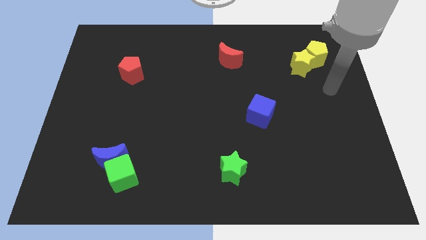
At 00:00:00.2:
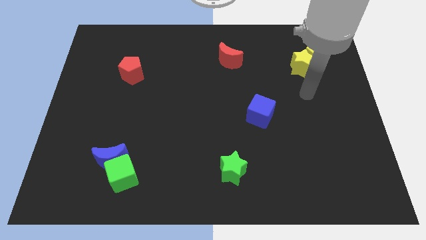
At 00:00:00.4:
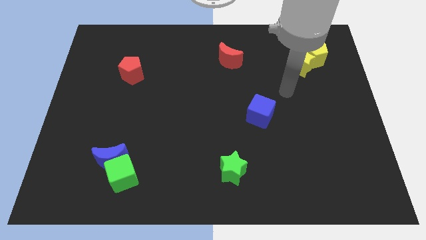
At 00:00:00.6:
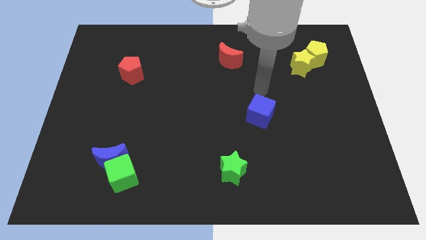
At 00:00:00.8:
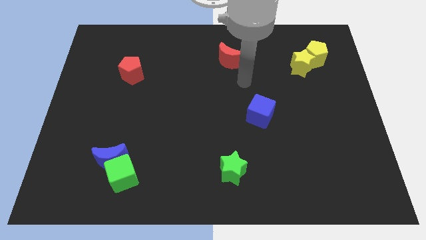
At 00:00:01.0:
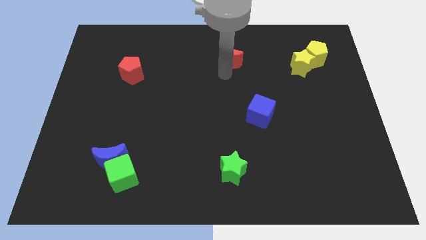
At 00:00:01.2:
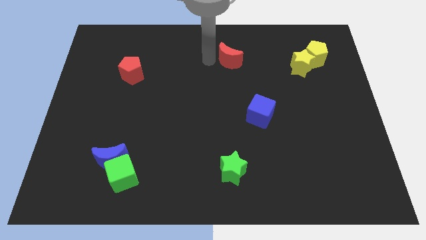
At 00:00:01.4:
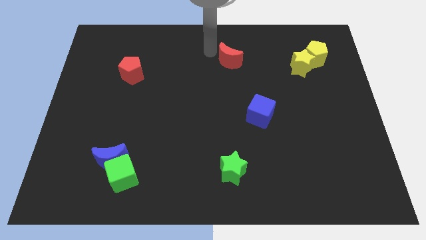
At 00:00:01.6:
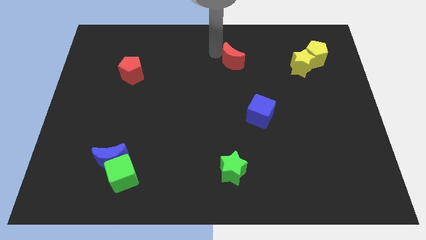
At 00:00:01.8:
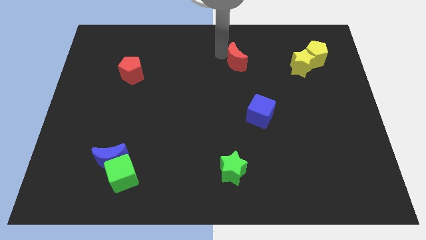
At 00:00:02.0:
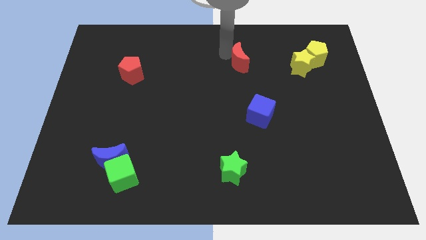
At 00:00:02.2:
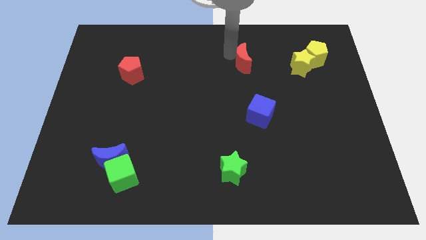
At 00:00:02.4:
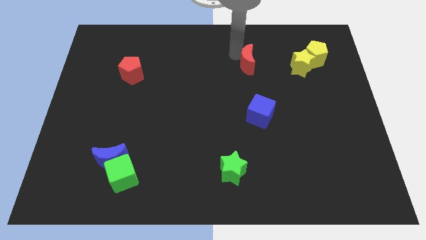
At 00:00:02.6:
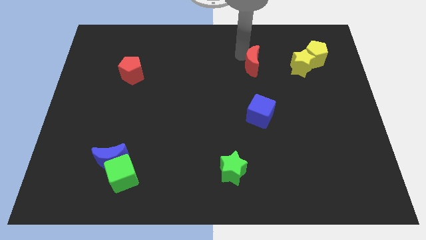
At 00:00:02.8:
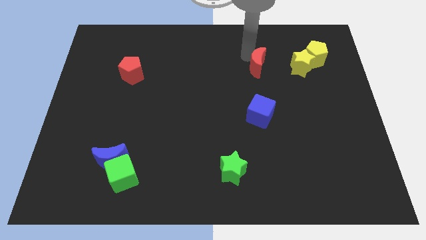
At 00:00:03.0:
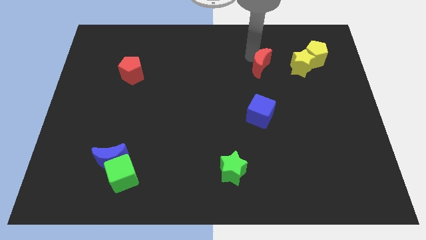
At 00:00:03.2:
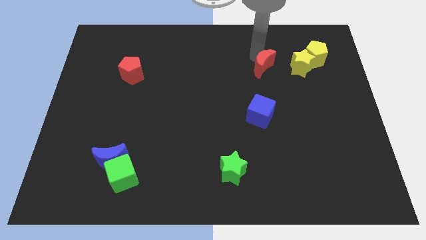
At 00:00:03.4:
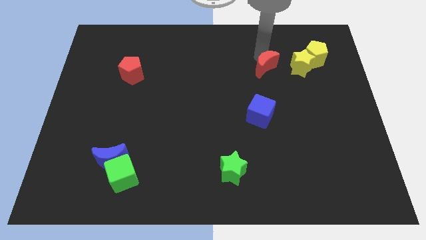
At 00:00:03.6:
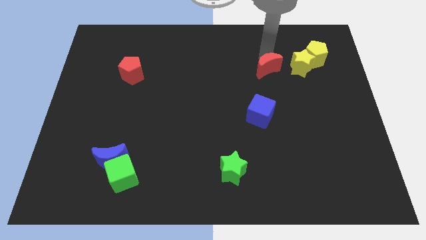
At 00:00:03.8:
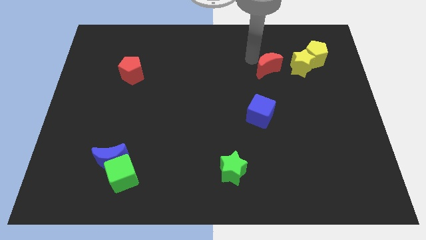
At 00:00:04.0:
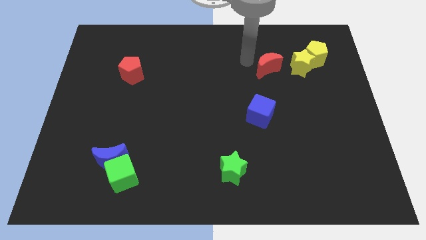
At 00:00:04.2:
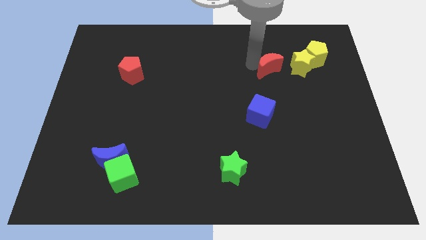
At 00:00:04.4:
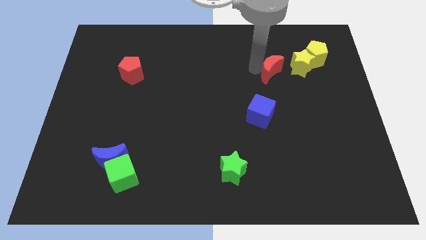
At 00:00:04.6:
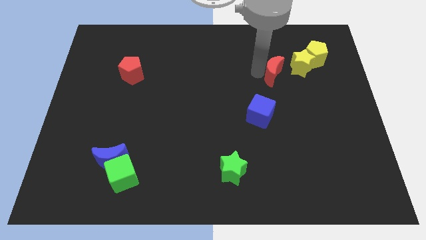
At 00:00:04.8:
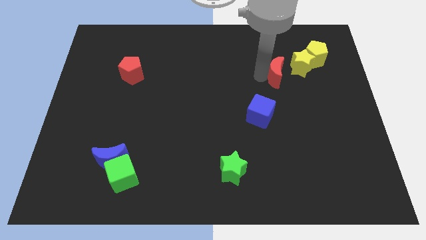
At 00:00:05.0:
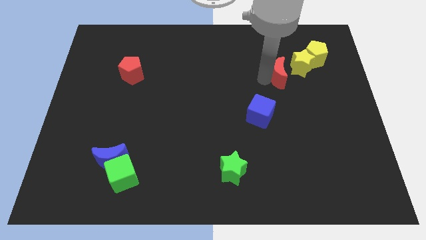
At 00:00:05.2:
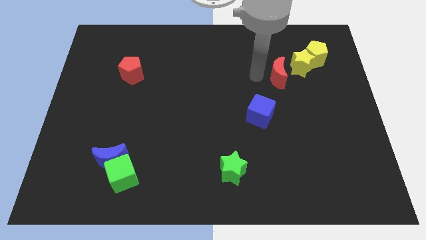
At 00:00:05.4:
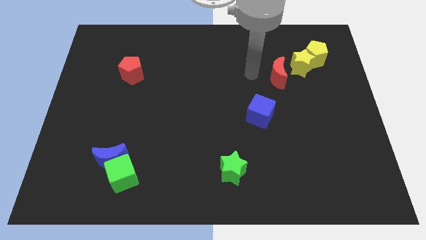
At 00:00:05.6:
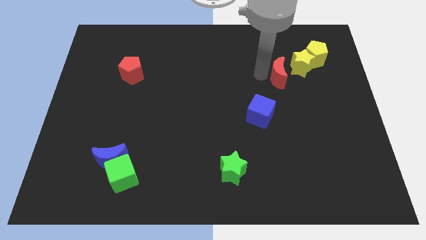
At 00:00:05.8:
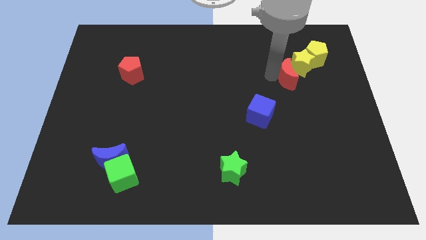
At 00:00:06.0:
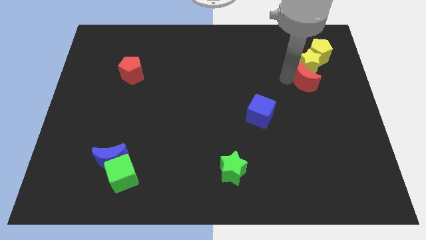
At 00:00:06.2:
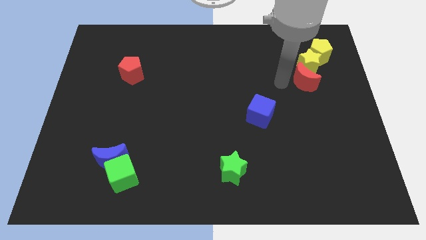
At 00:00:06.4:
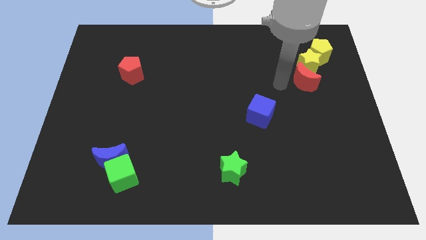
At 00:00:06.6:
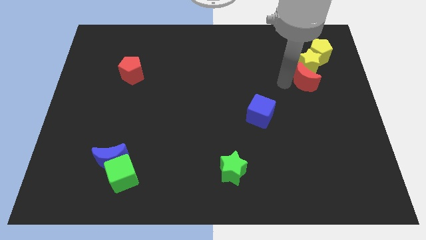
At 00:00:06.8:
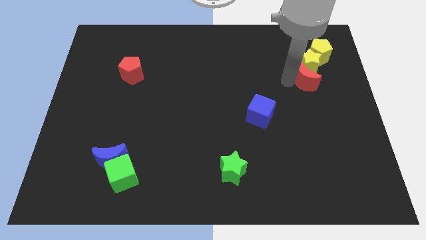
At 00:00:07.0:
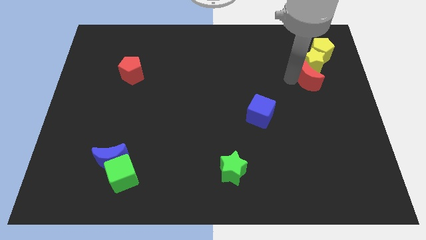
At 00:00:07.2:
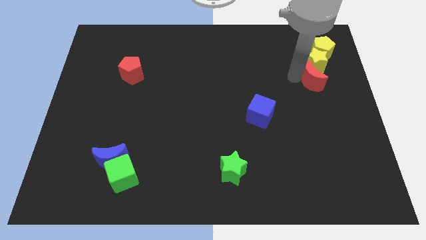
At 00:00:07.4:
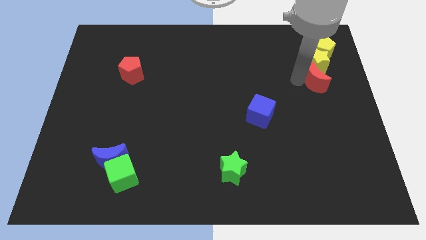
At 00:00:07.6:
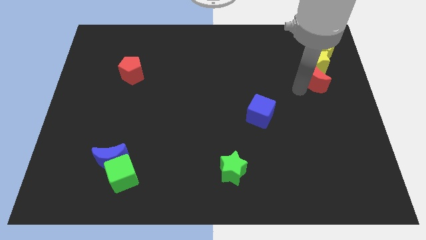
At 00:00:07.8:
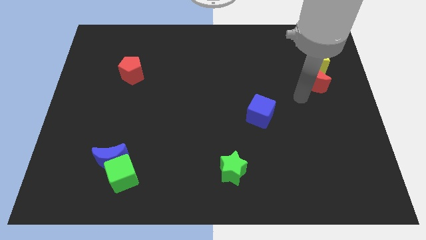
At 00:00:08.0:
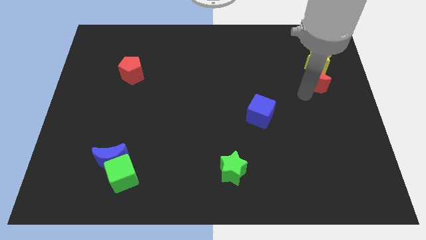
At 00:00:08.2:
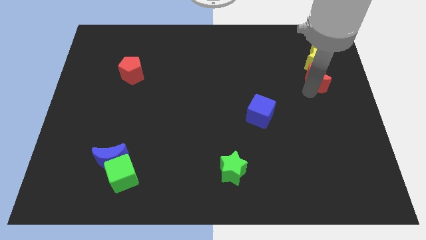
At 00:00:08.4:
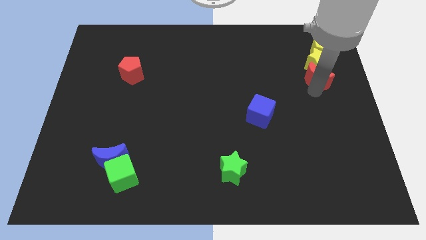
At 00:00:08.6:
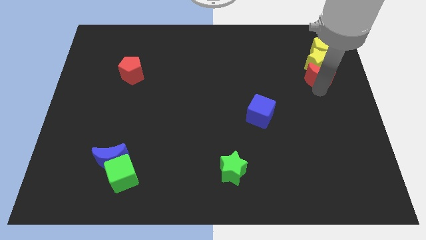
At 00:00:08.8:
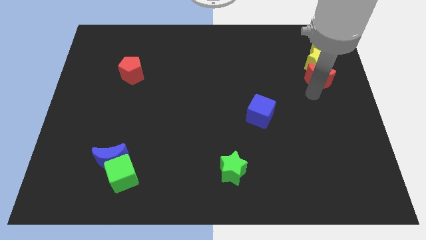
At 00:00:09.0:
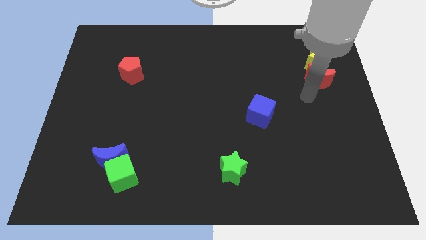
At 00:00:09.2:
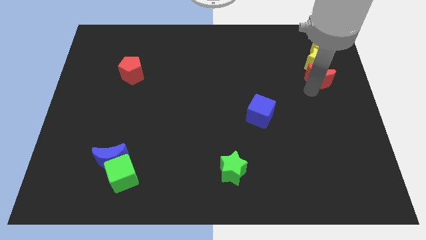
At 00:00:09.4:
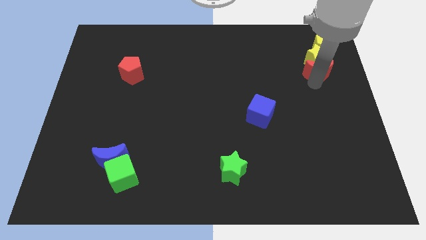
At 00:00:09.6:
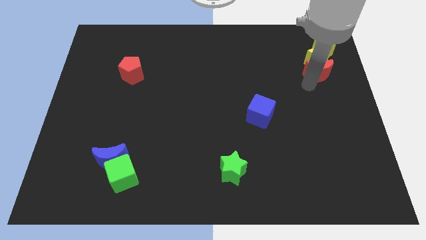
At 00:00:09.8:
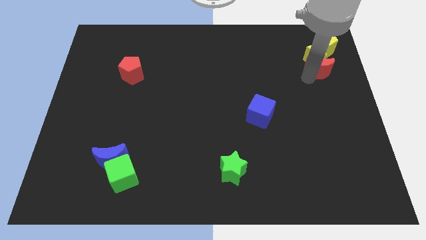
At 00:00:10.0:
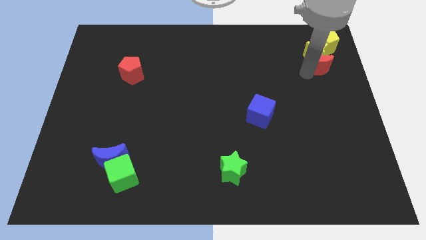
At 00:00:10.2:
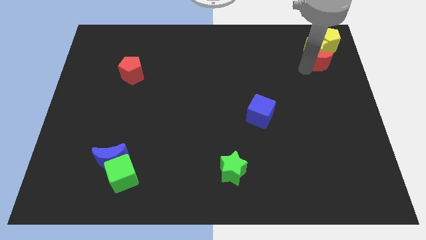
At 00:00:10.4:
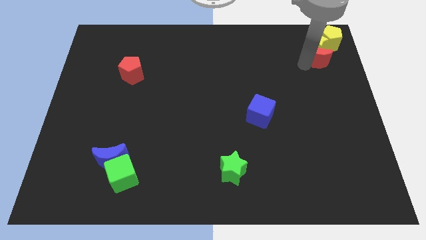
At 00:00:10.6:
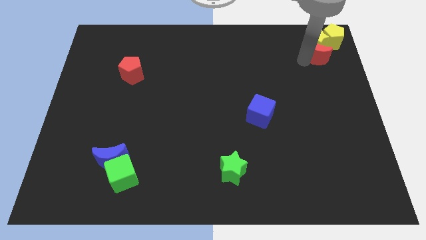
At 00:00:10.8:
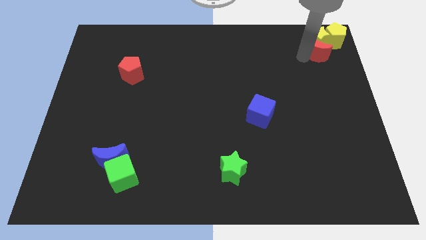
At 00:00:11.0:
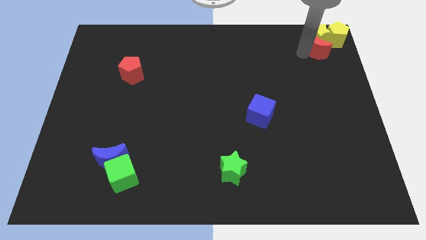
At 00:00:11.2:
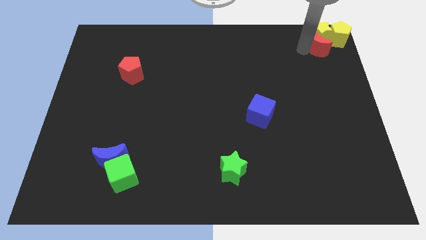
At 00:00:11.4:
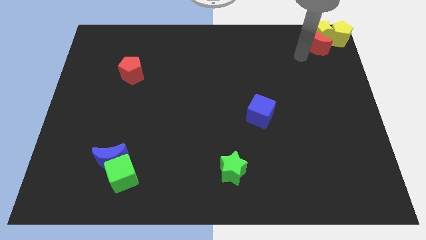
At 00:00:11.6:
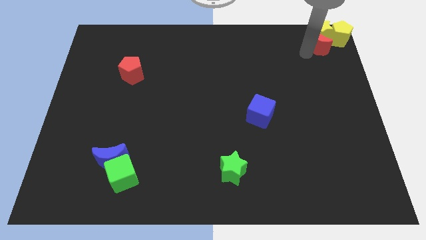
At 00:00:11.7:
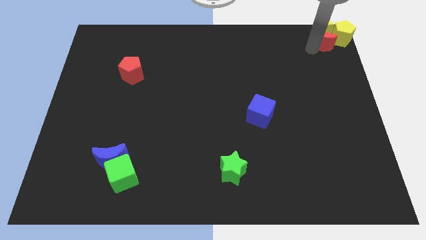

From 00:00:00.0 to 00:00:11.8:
push the red moon to the top right of the board
